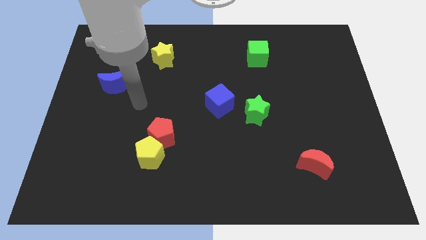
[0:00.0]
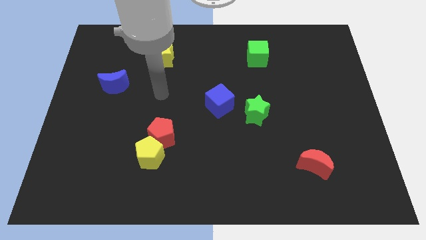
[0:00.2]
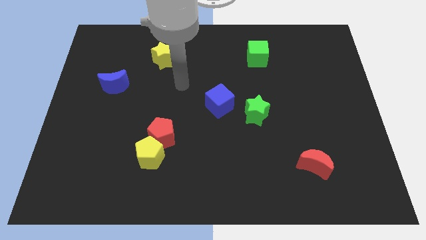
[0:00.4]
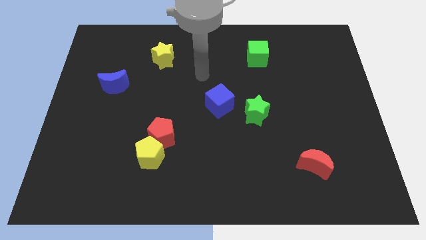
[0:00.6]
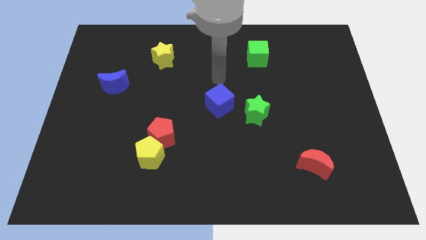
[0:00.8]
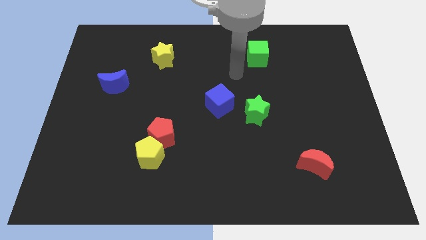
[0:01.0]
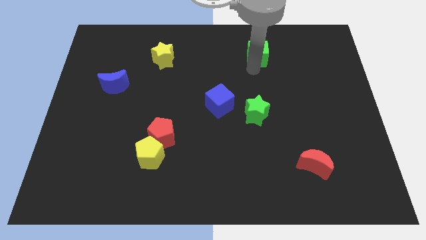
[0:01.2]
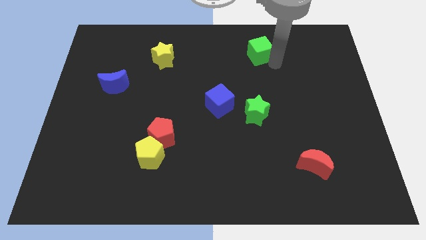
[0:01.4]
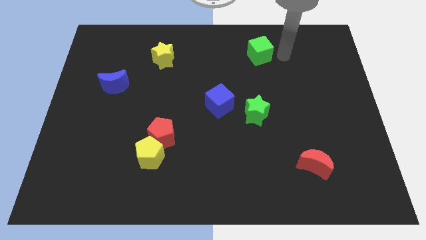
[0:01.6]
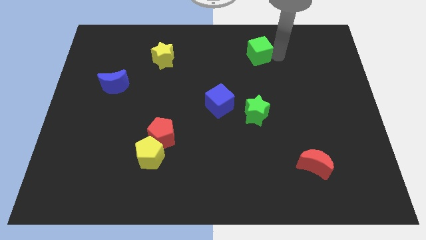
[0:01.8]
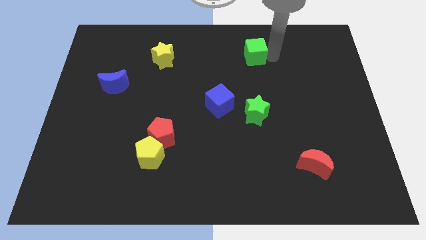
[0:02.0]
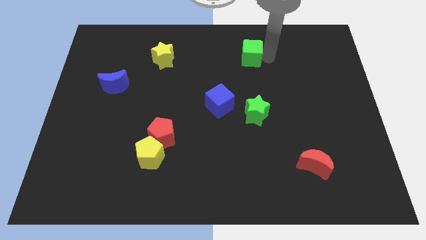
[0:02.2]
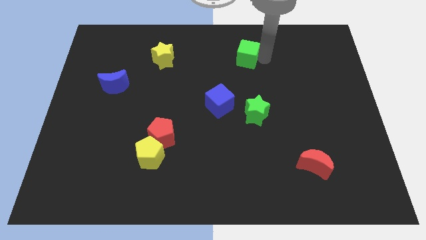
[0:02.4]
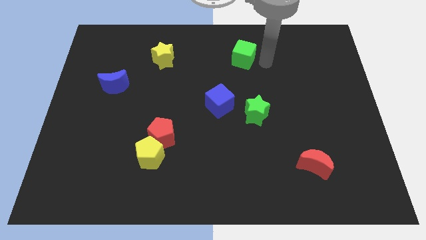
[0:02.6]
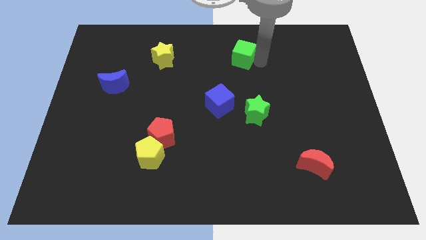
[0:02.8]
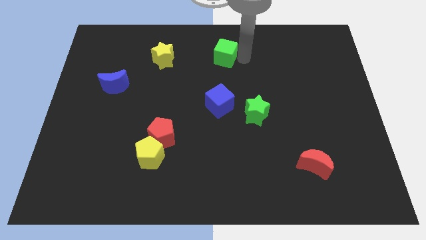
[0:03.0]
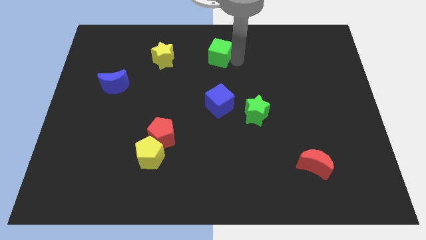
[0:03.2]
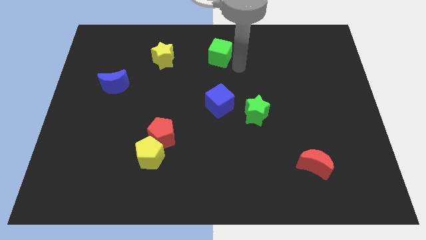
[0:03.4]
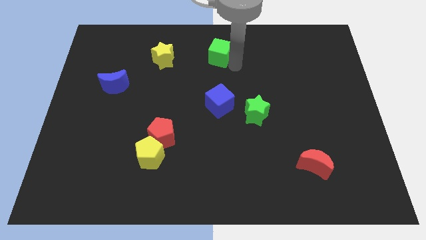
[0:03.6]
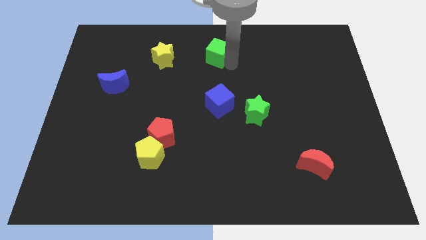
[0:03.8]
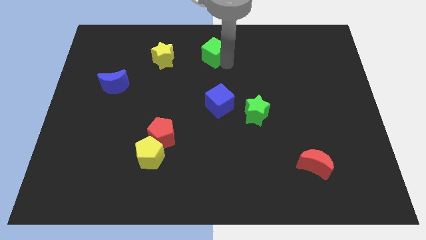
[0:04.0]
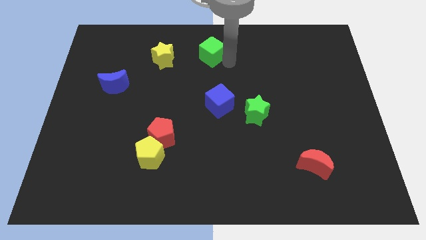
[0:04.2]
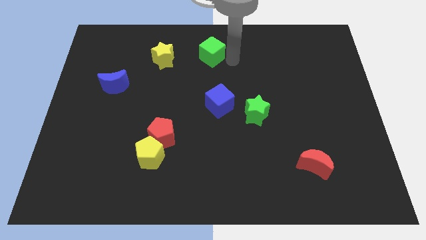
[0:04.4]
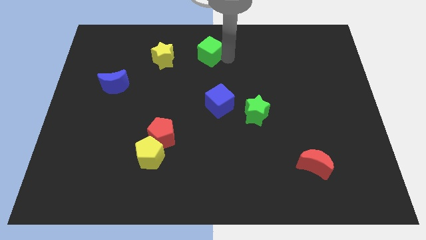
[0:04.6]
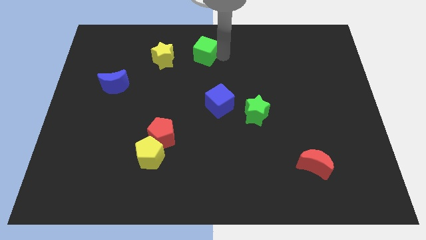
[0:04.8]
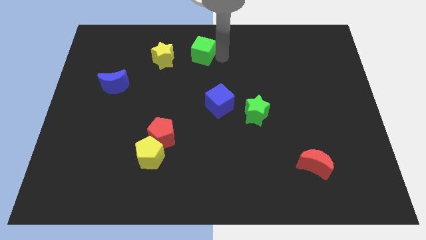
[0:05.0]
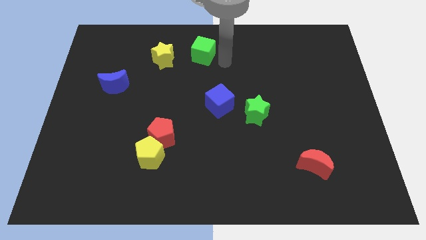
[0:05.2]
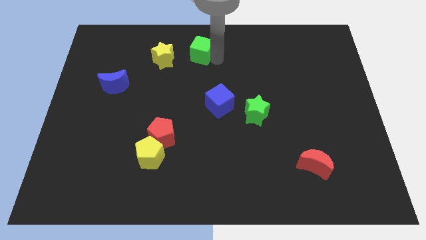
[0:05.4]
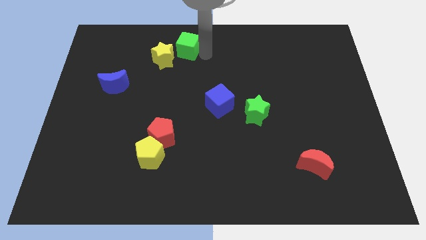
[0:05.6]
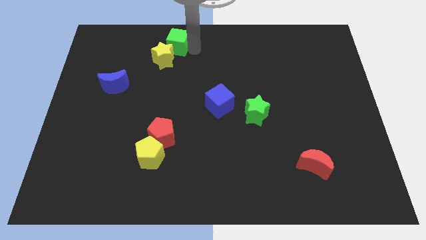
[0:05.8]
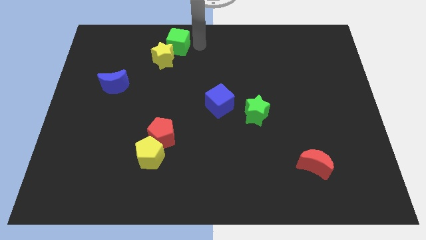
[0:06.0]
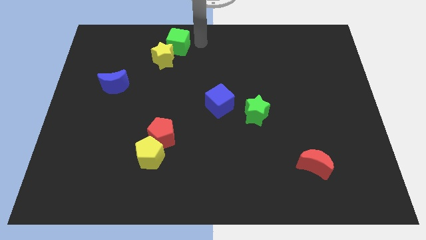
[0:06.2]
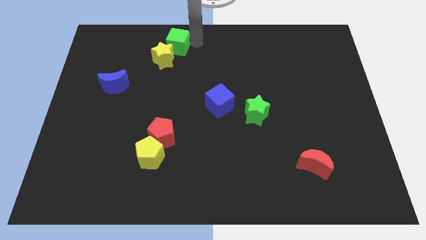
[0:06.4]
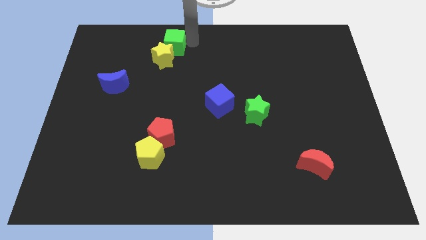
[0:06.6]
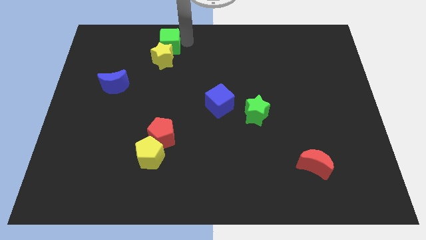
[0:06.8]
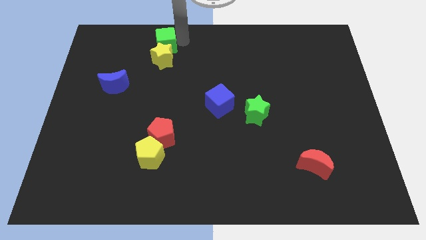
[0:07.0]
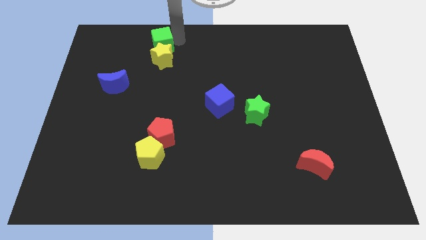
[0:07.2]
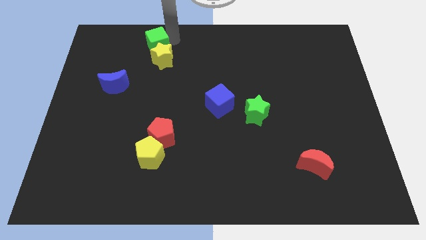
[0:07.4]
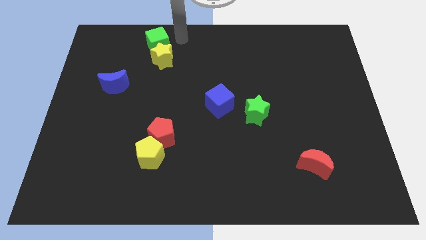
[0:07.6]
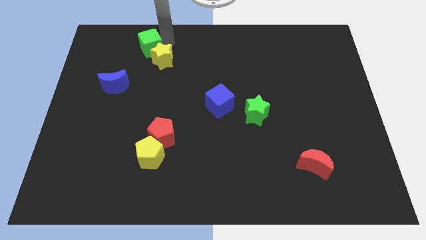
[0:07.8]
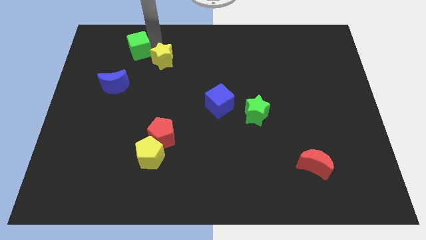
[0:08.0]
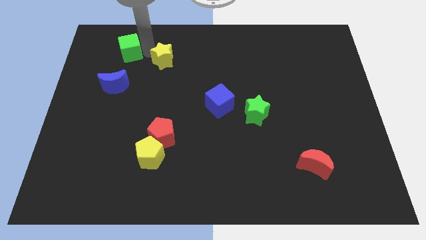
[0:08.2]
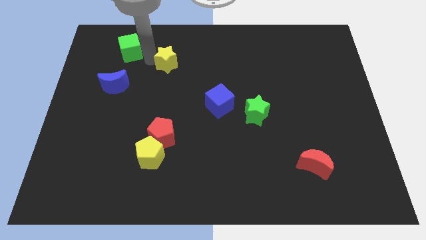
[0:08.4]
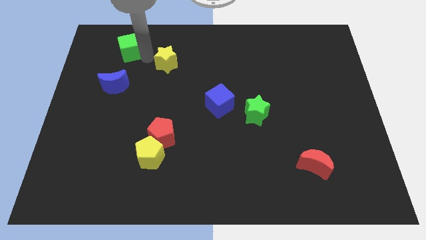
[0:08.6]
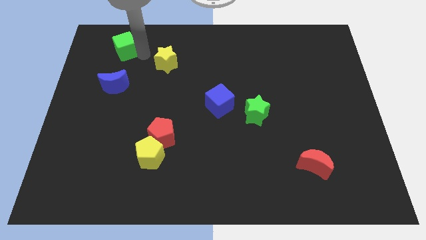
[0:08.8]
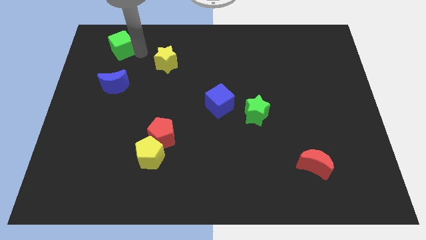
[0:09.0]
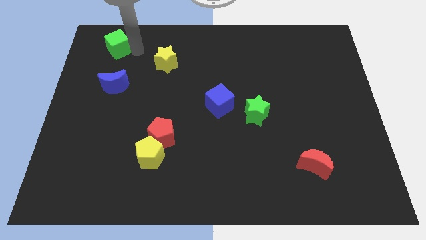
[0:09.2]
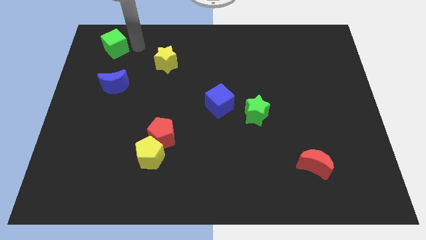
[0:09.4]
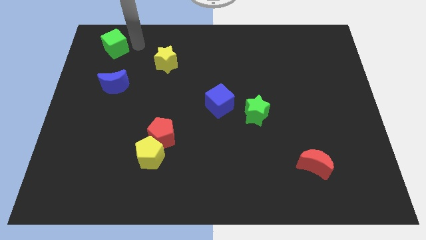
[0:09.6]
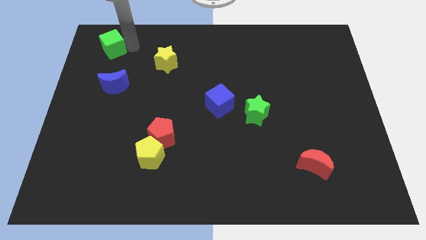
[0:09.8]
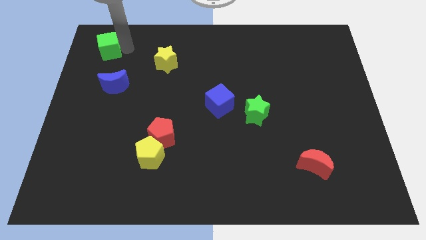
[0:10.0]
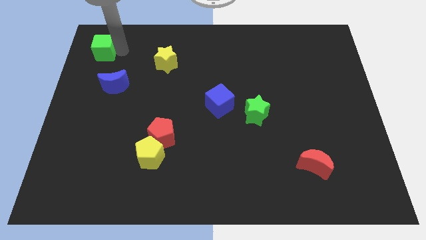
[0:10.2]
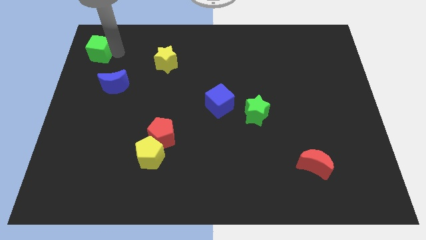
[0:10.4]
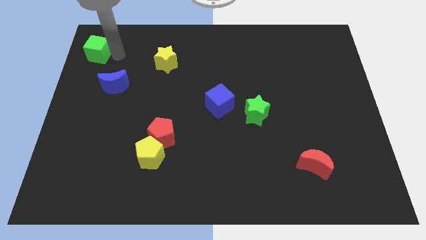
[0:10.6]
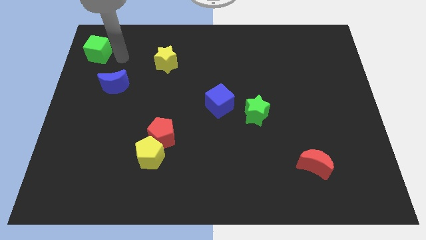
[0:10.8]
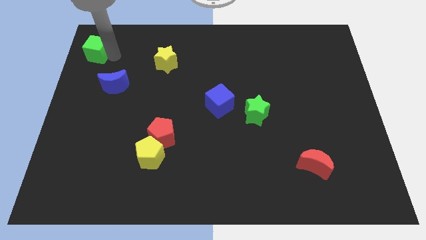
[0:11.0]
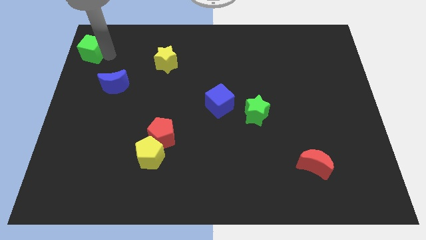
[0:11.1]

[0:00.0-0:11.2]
slide the green cube to the upper left corner
